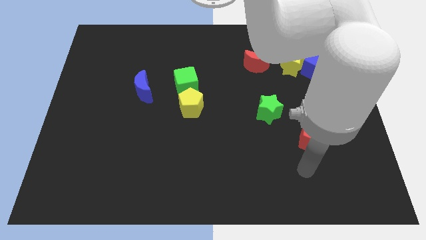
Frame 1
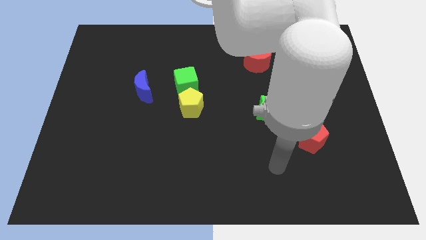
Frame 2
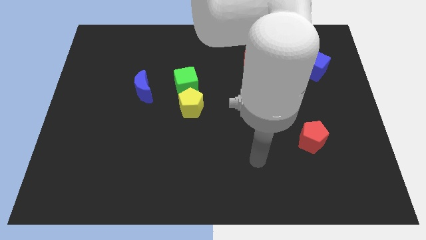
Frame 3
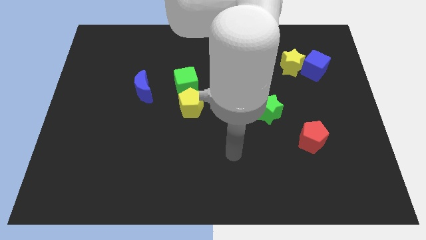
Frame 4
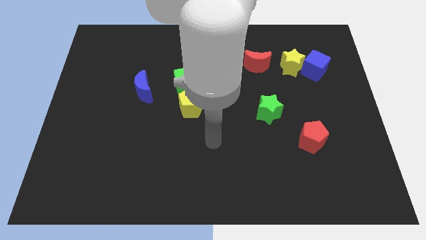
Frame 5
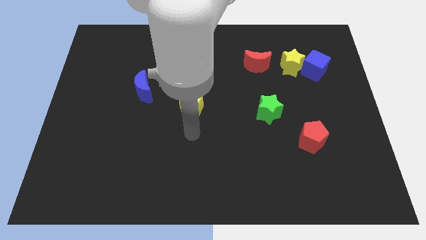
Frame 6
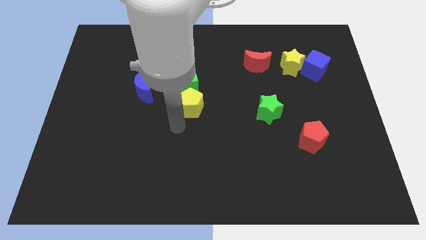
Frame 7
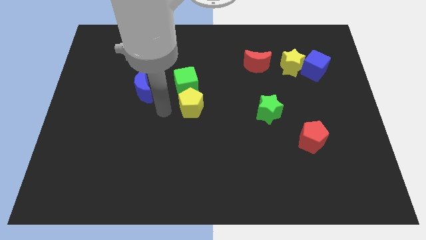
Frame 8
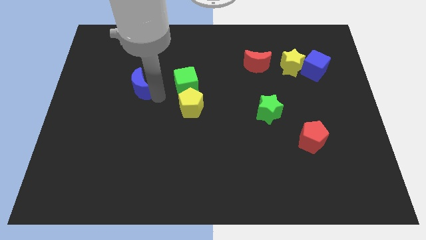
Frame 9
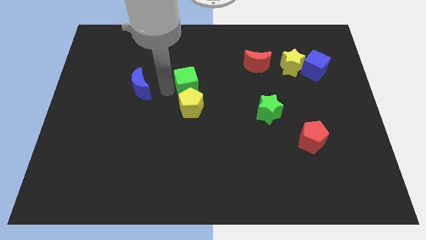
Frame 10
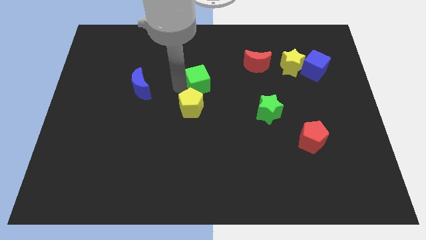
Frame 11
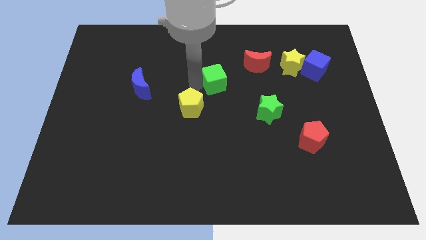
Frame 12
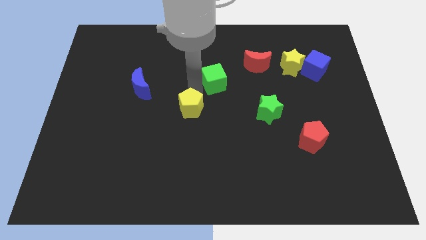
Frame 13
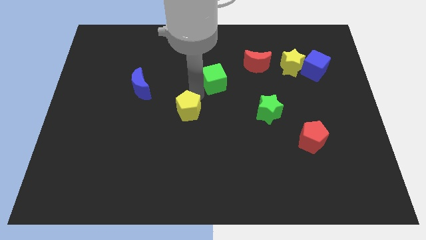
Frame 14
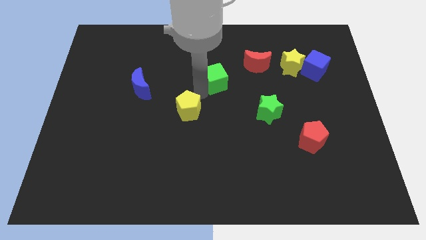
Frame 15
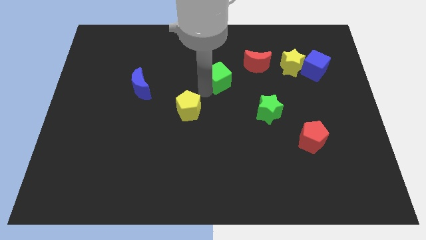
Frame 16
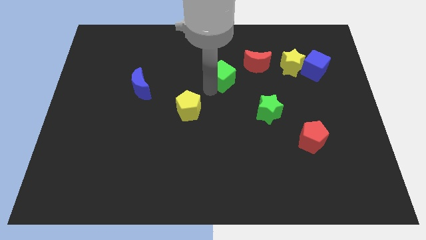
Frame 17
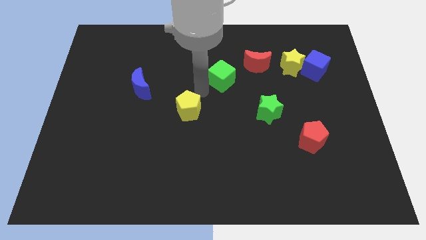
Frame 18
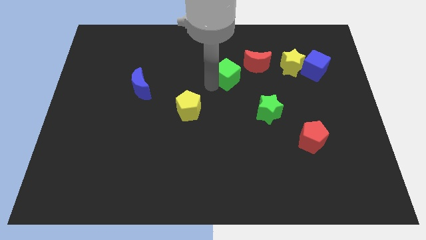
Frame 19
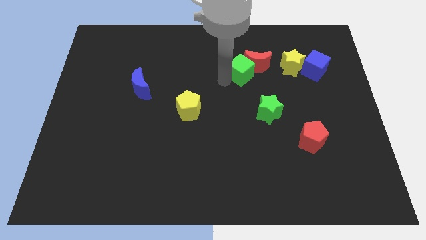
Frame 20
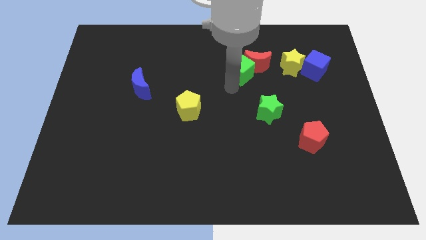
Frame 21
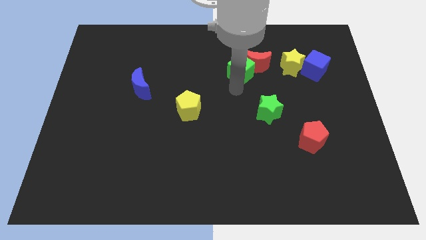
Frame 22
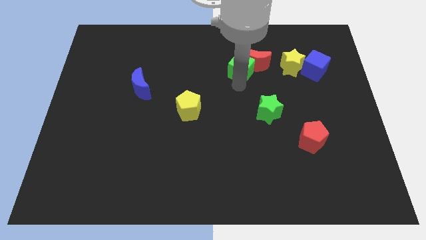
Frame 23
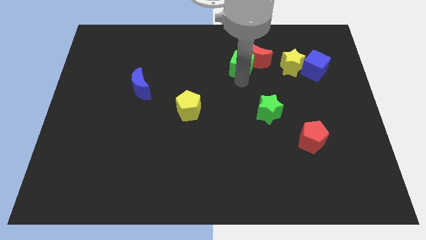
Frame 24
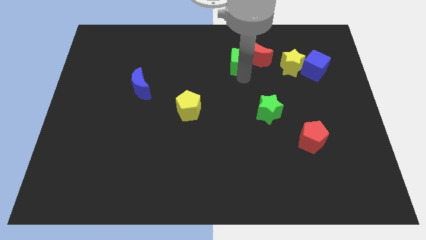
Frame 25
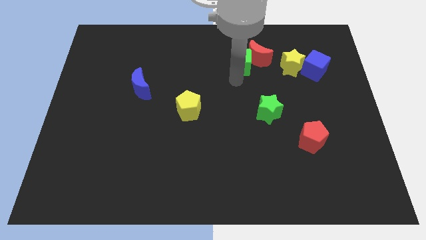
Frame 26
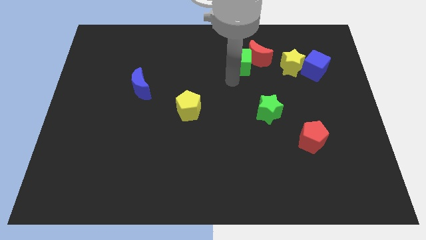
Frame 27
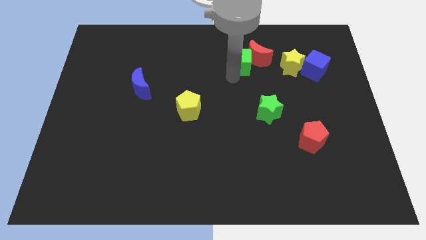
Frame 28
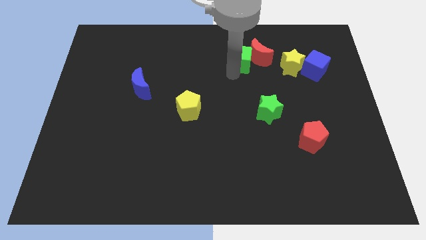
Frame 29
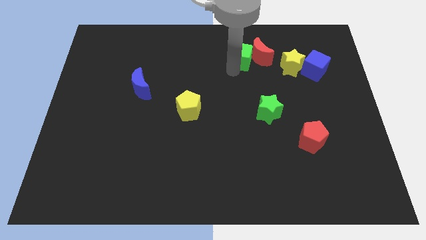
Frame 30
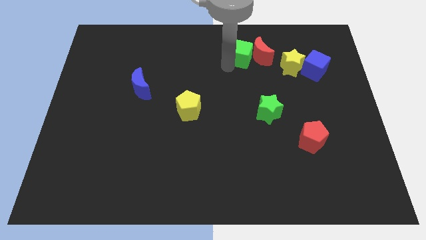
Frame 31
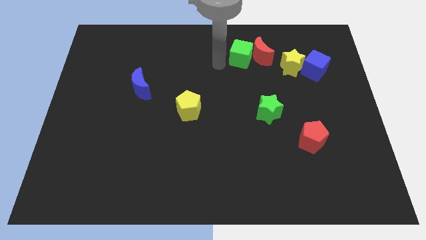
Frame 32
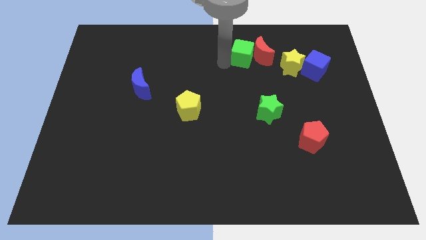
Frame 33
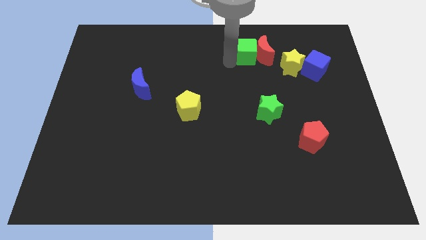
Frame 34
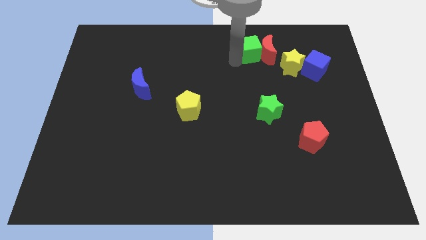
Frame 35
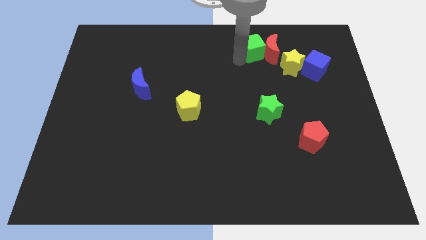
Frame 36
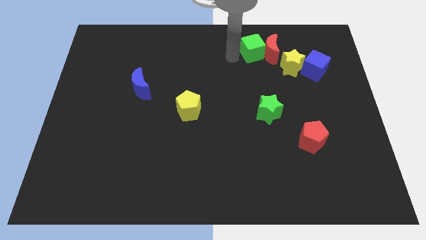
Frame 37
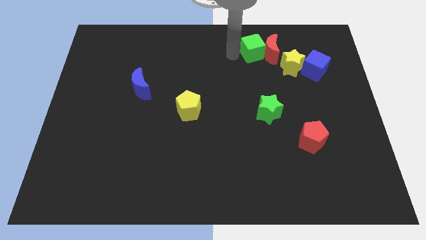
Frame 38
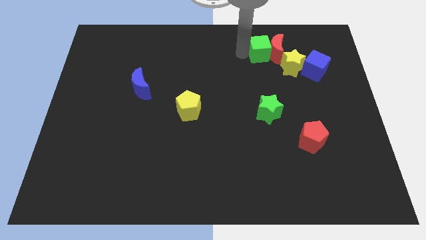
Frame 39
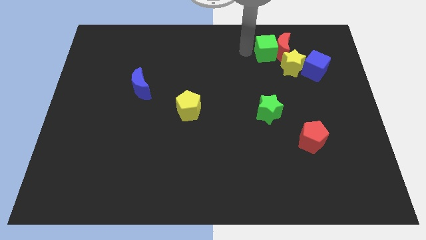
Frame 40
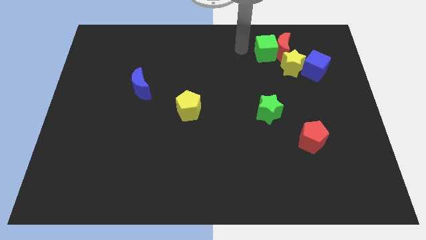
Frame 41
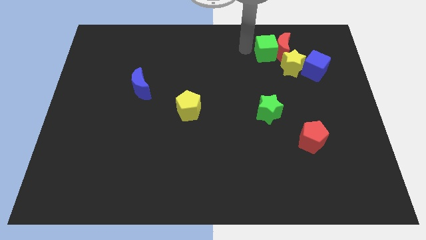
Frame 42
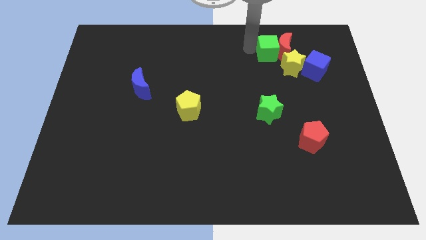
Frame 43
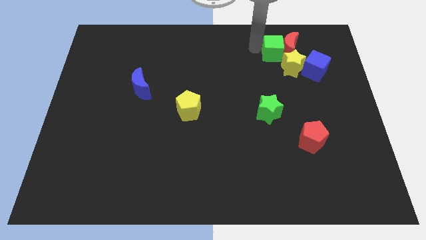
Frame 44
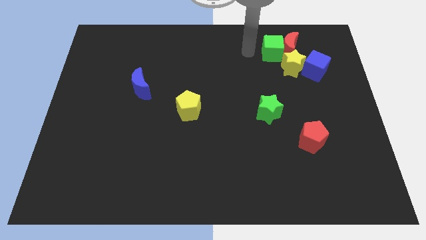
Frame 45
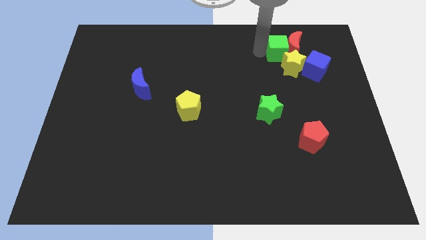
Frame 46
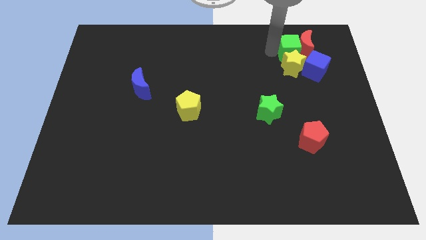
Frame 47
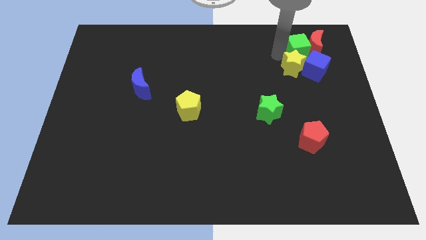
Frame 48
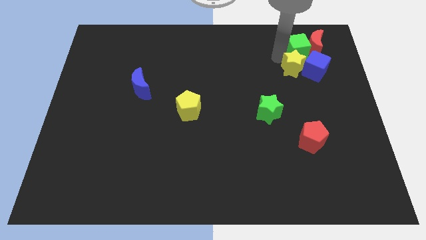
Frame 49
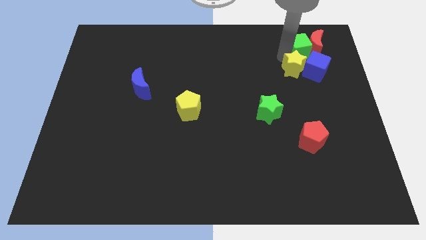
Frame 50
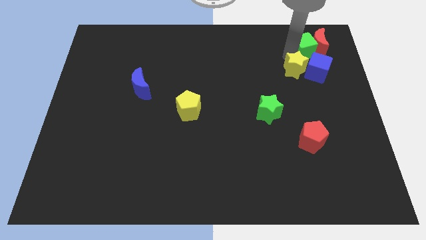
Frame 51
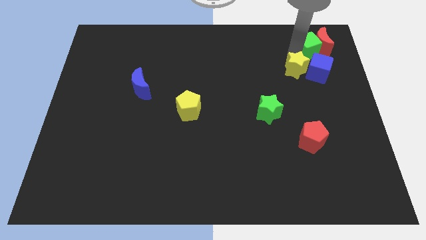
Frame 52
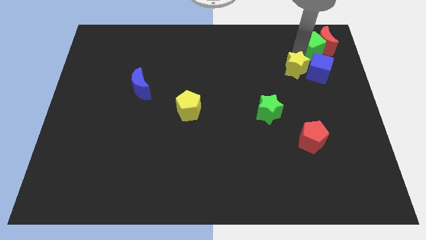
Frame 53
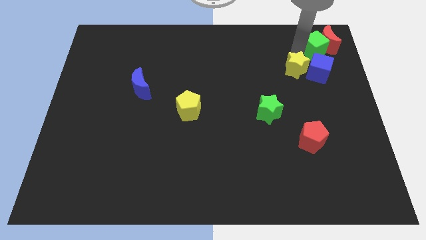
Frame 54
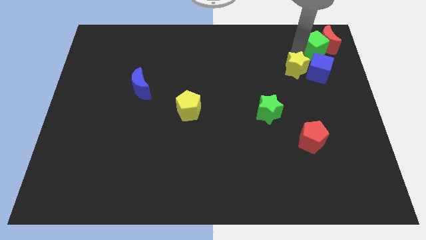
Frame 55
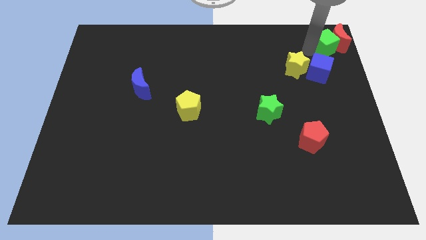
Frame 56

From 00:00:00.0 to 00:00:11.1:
put the green cube to the top right corner

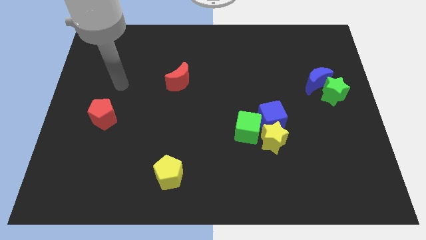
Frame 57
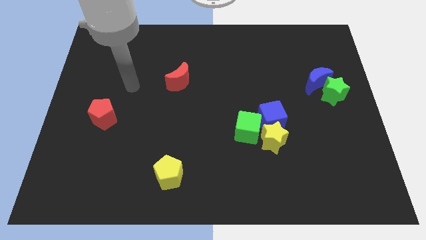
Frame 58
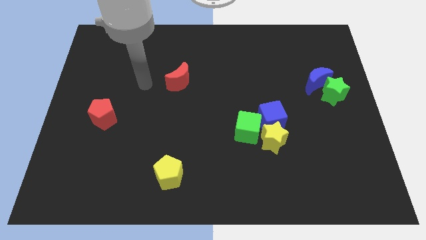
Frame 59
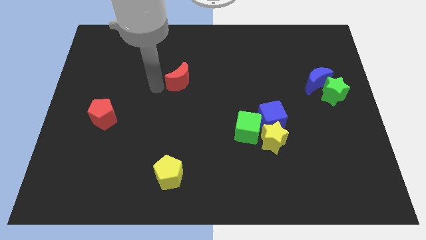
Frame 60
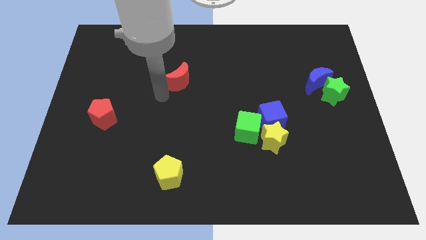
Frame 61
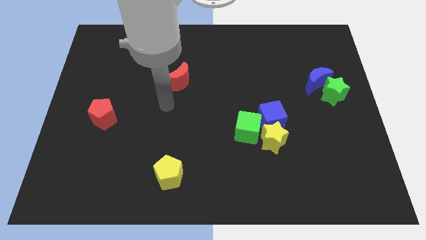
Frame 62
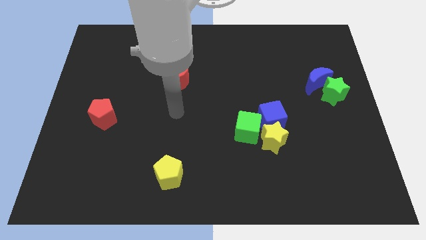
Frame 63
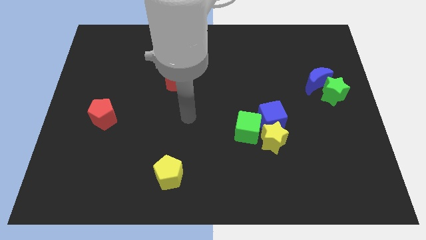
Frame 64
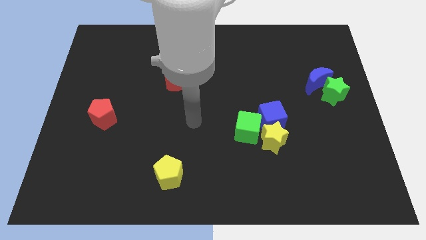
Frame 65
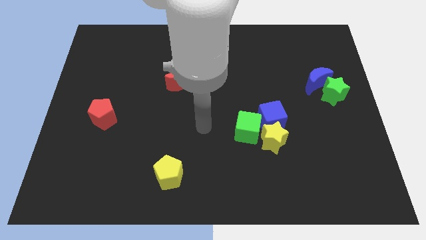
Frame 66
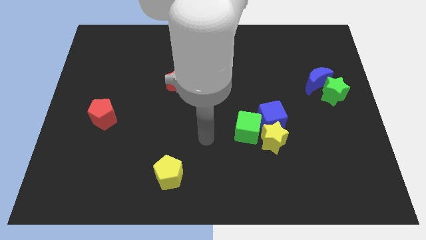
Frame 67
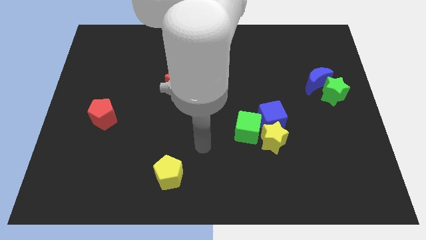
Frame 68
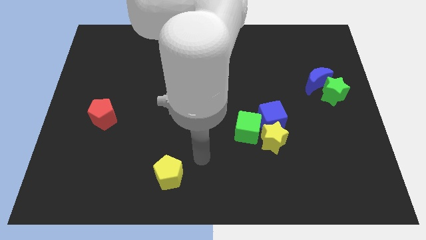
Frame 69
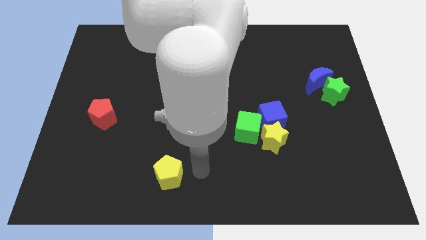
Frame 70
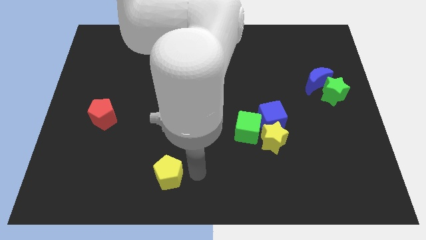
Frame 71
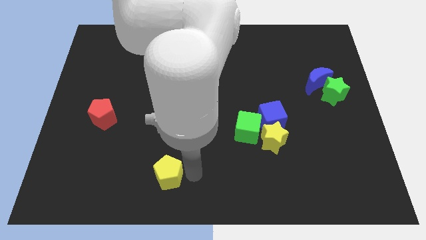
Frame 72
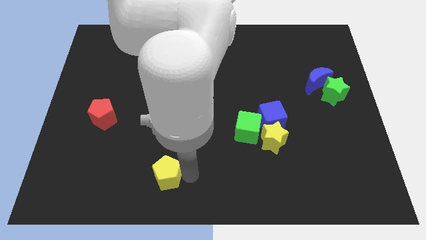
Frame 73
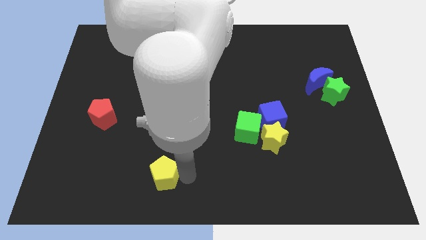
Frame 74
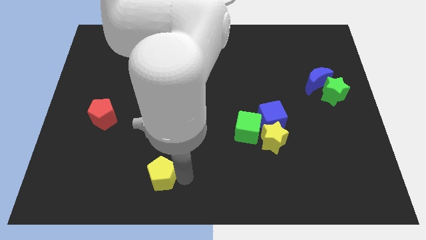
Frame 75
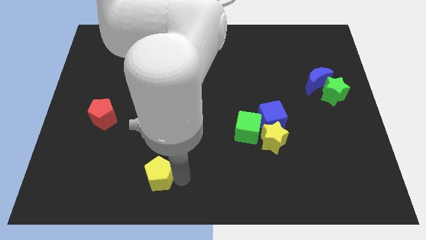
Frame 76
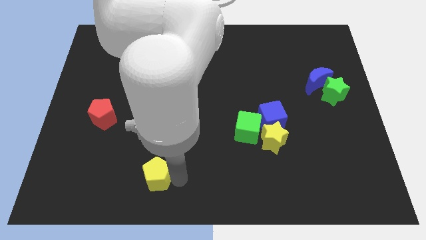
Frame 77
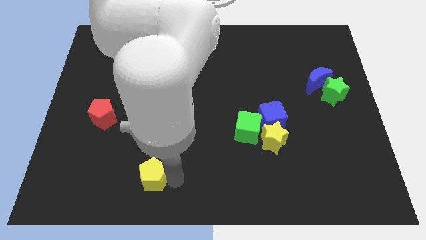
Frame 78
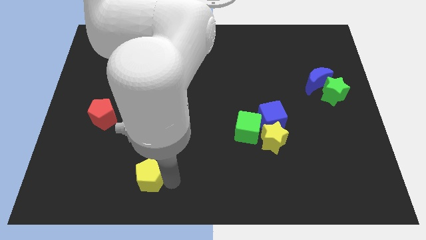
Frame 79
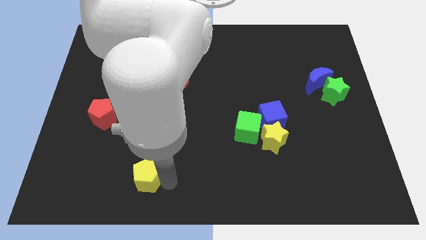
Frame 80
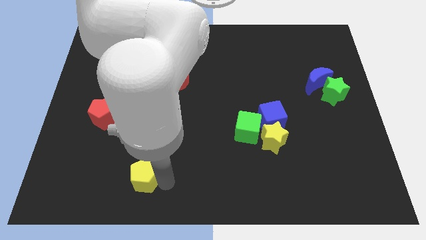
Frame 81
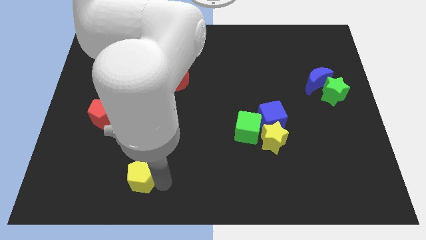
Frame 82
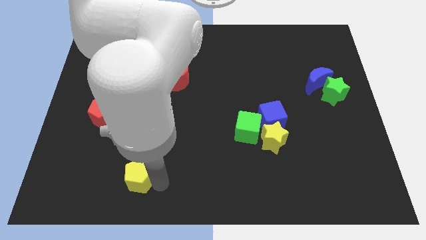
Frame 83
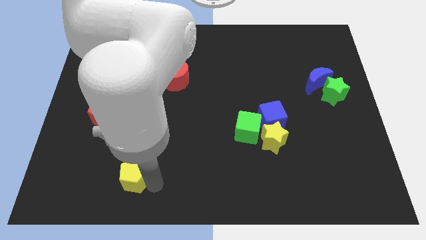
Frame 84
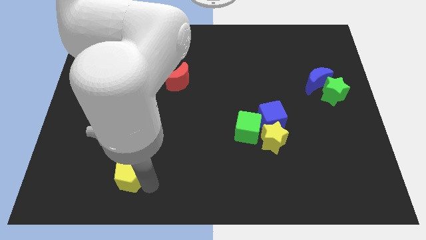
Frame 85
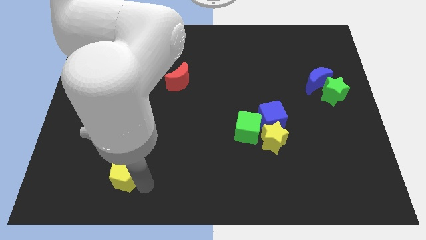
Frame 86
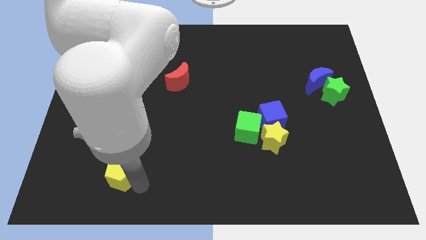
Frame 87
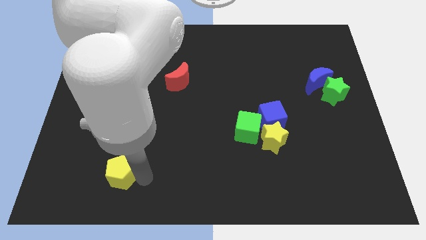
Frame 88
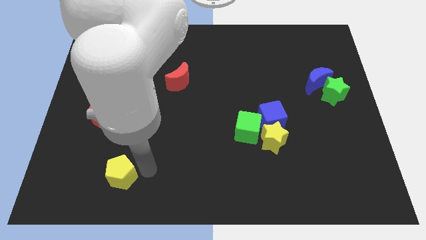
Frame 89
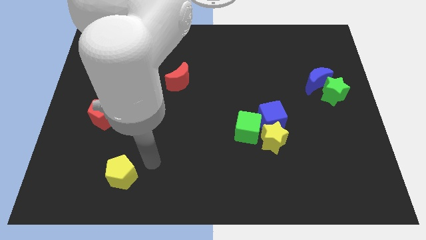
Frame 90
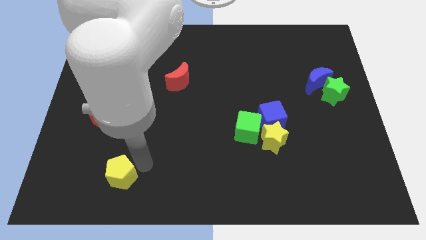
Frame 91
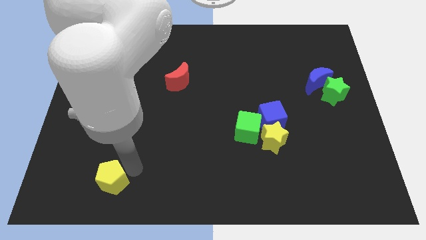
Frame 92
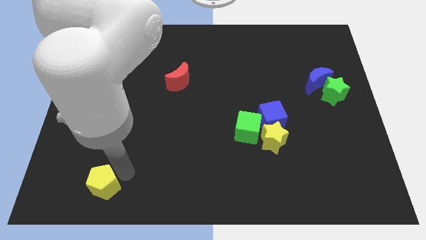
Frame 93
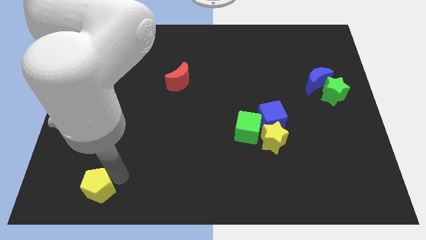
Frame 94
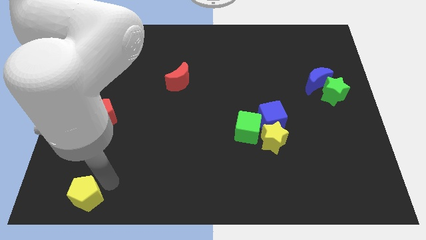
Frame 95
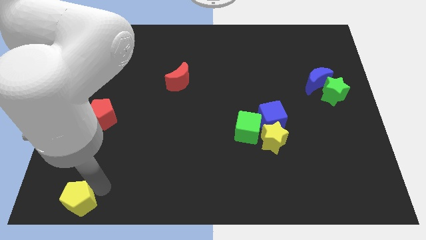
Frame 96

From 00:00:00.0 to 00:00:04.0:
slide the yellow pentagon to the lower left corner
